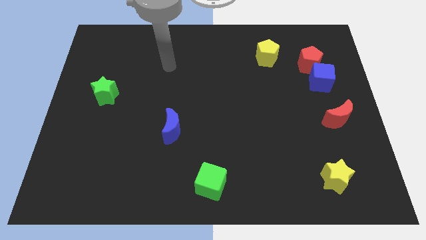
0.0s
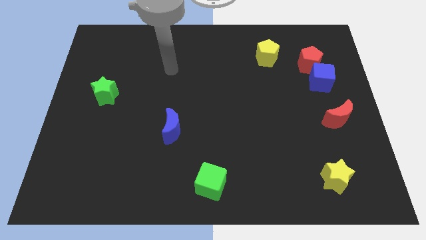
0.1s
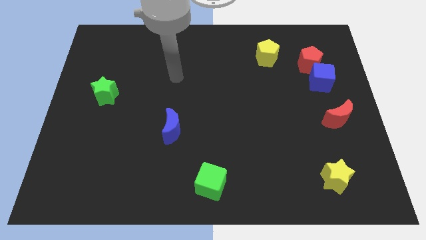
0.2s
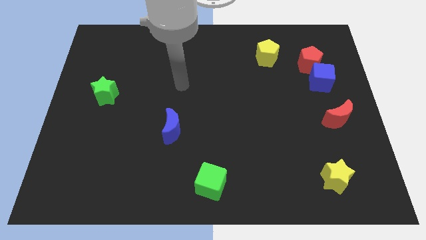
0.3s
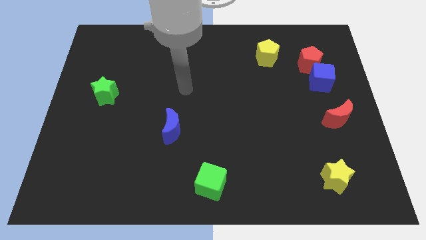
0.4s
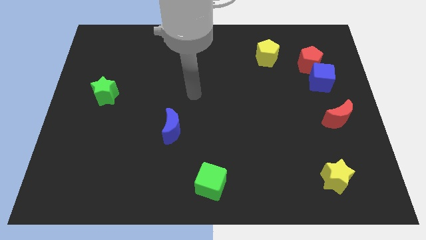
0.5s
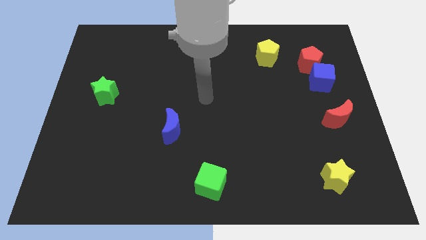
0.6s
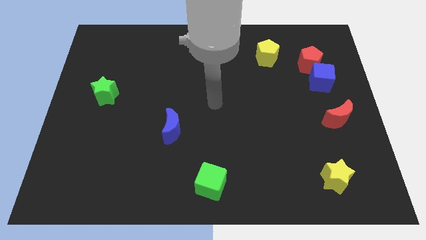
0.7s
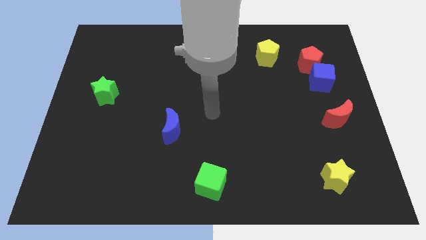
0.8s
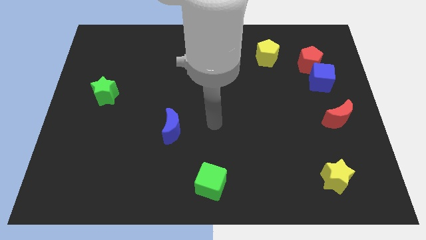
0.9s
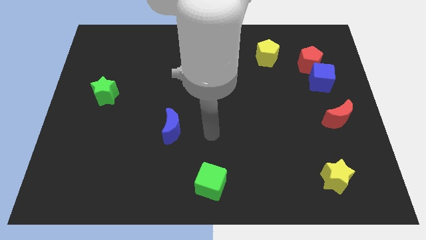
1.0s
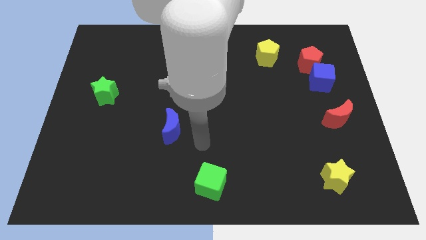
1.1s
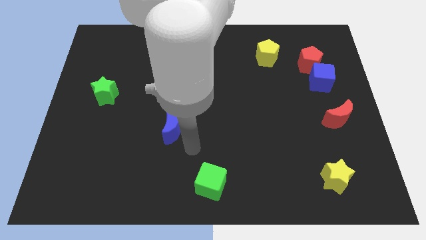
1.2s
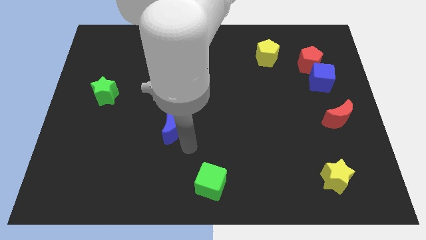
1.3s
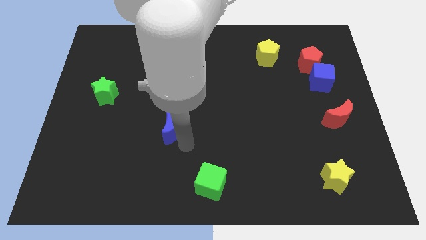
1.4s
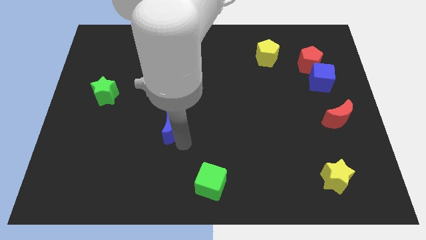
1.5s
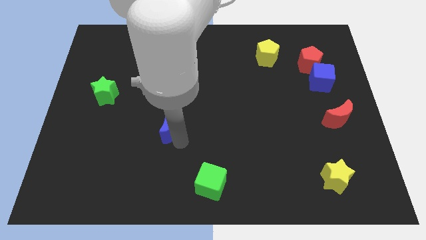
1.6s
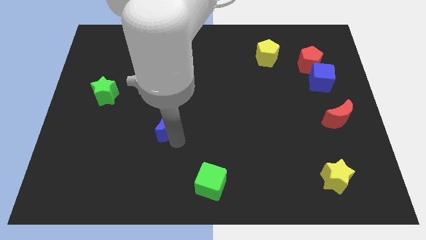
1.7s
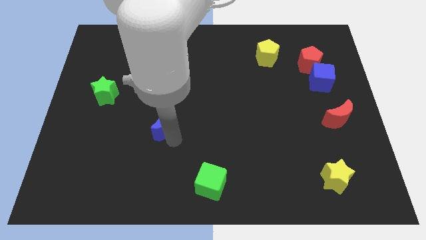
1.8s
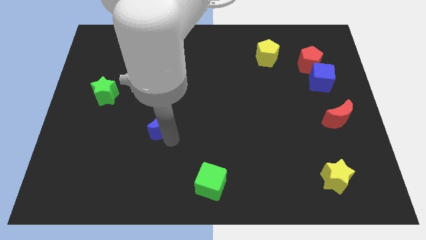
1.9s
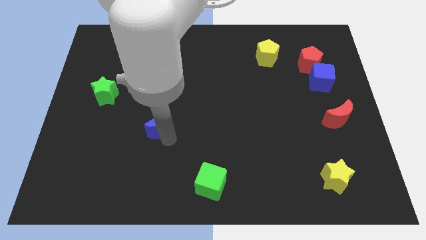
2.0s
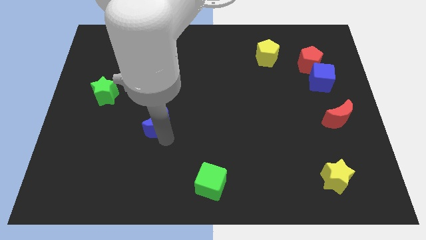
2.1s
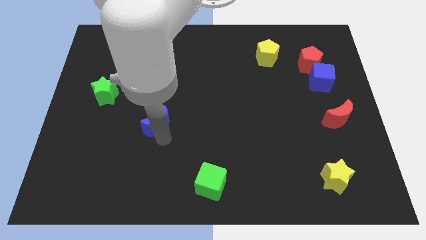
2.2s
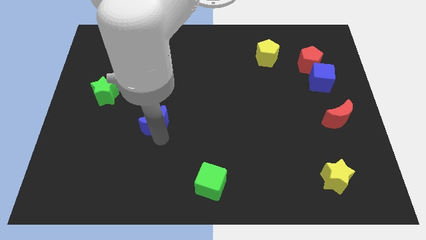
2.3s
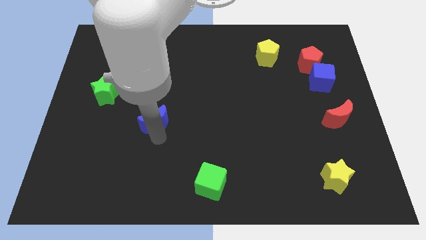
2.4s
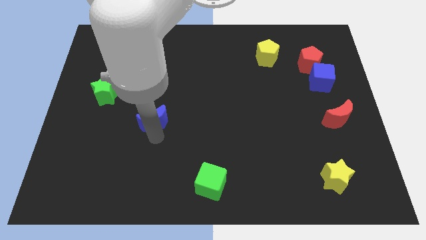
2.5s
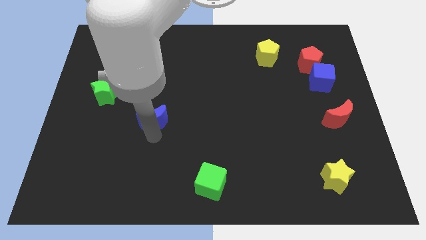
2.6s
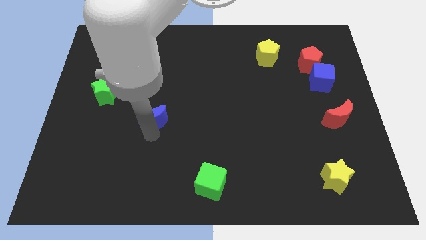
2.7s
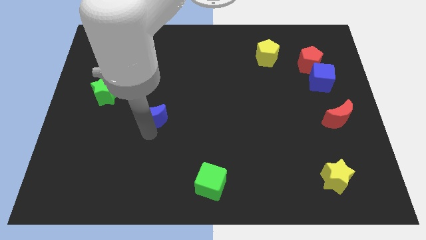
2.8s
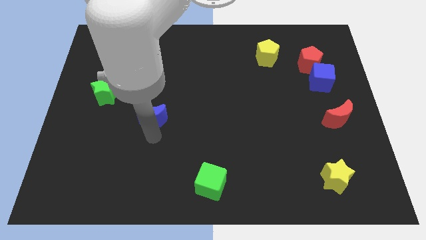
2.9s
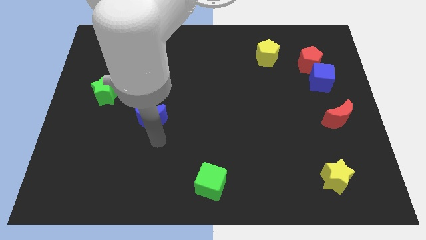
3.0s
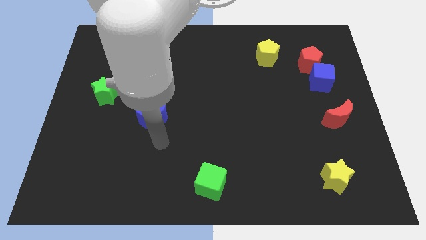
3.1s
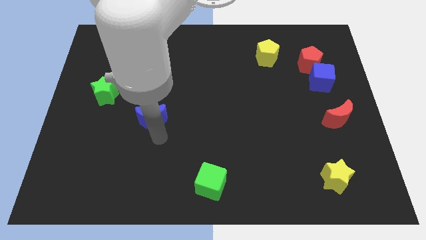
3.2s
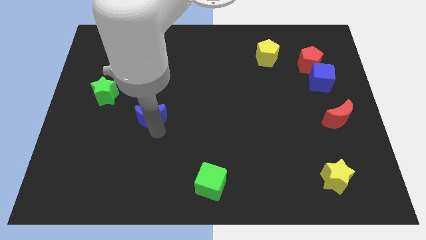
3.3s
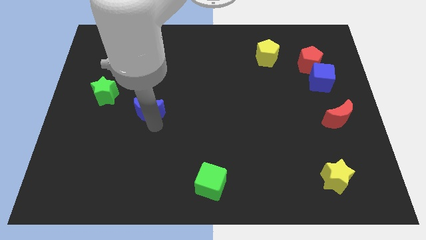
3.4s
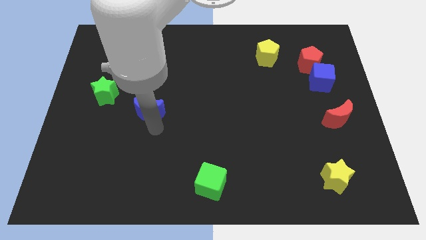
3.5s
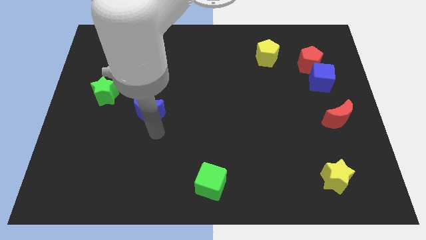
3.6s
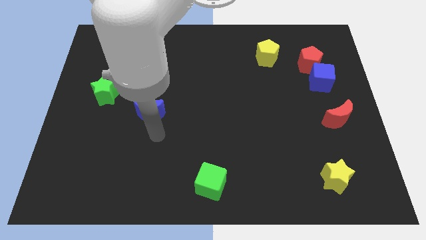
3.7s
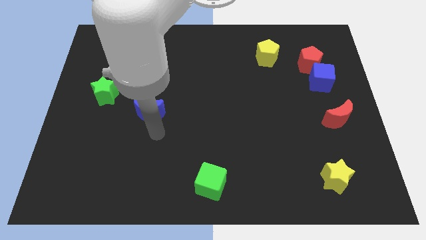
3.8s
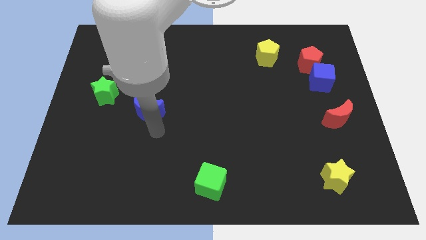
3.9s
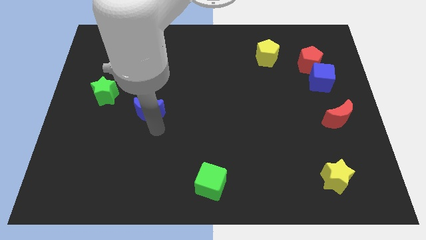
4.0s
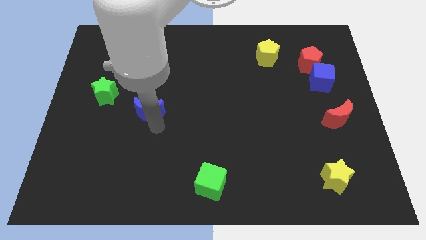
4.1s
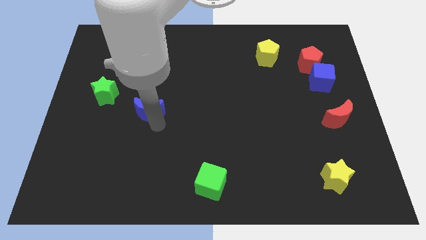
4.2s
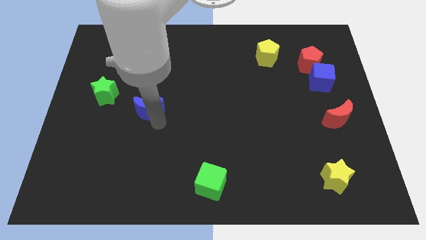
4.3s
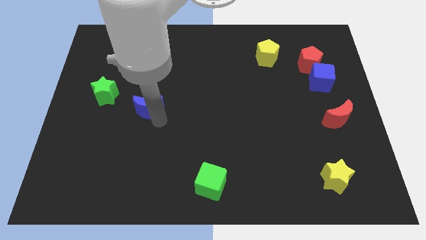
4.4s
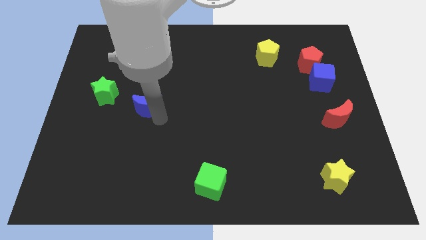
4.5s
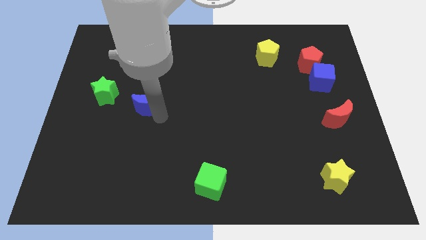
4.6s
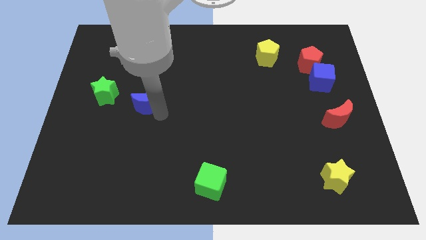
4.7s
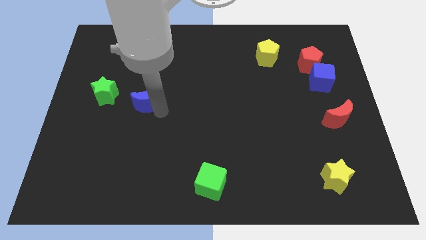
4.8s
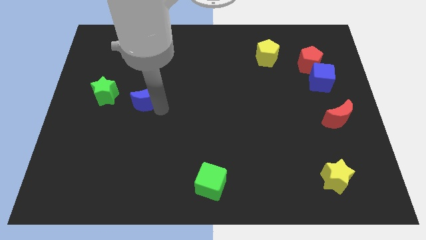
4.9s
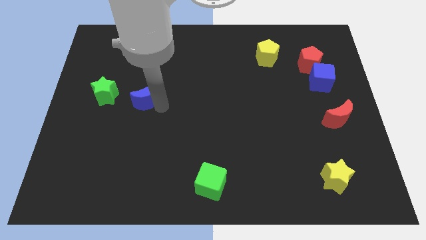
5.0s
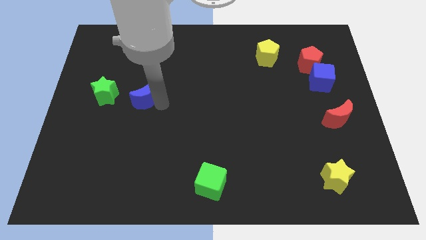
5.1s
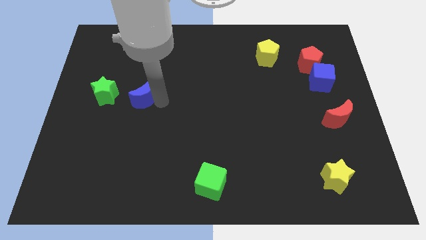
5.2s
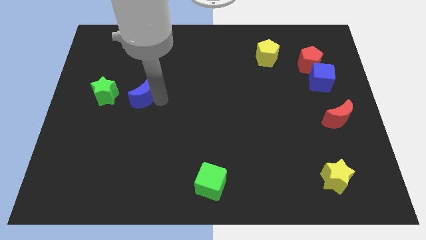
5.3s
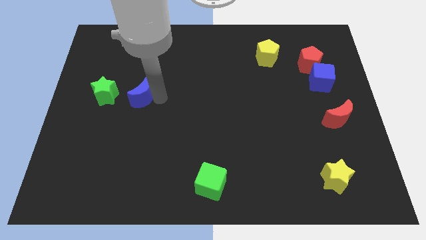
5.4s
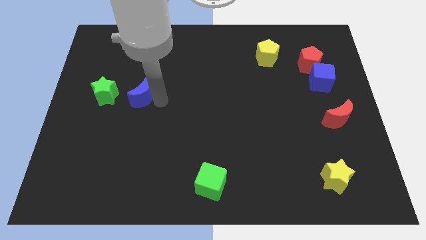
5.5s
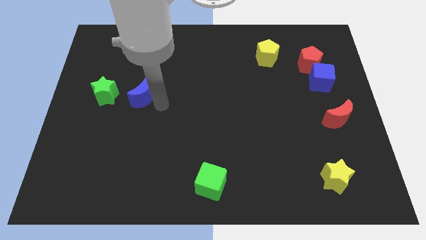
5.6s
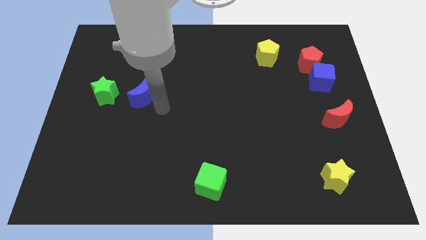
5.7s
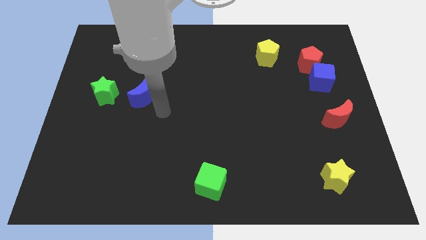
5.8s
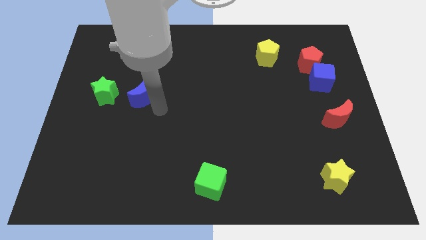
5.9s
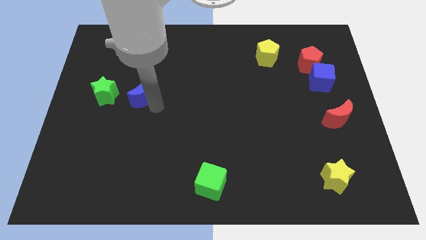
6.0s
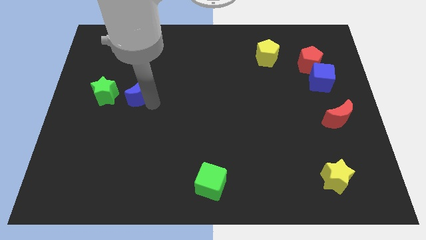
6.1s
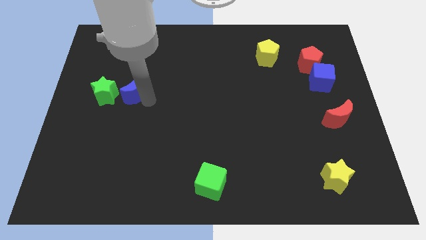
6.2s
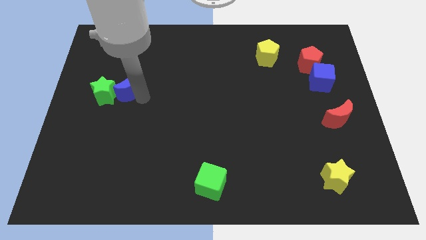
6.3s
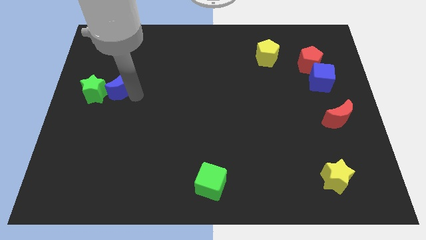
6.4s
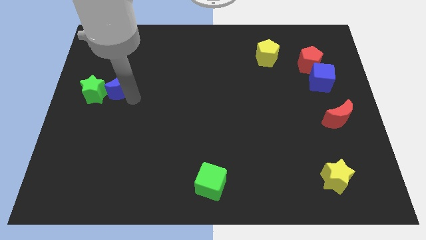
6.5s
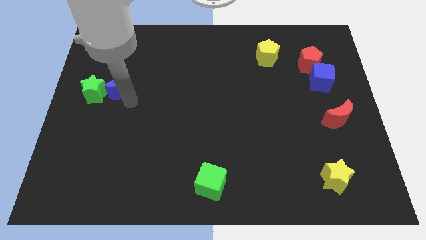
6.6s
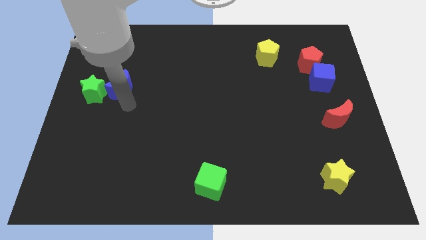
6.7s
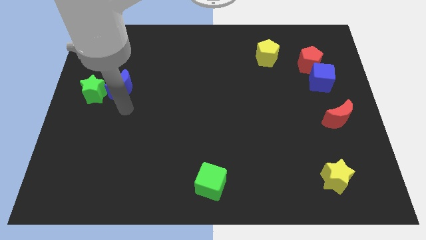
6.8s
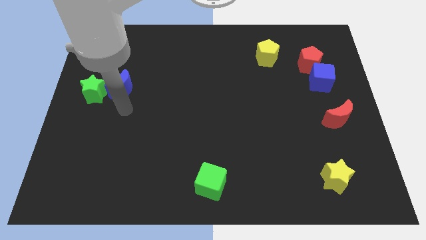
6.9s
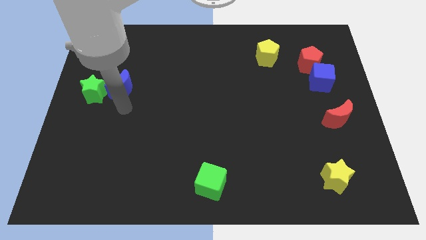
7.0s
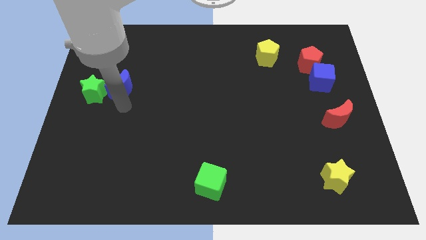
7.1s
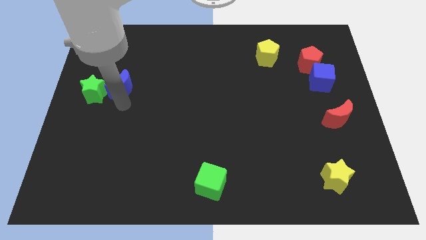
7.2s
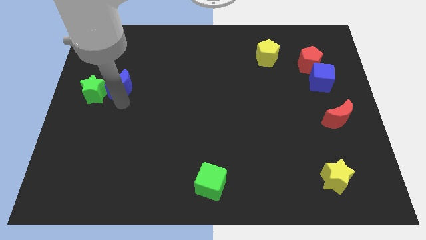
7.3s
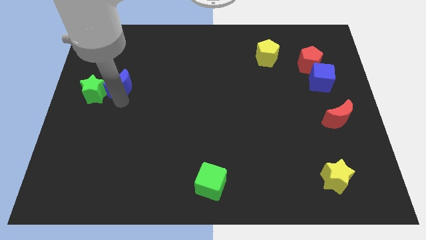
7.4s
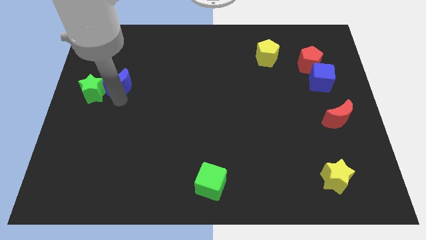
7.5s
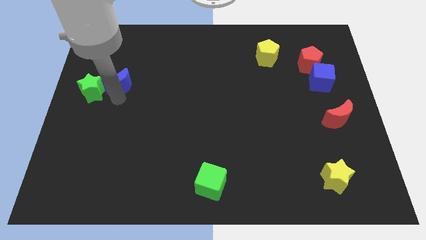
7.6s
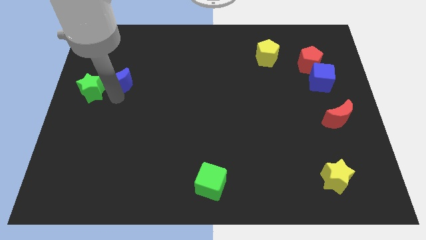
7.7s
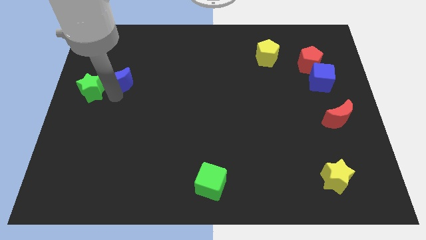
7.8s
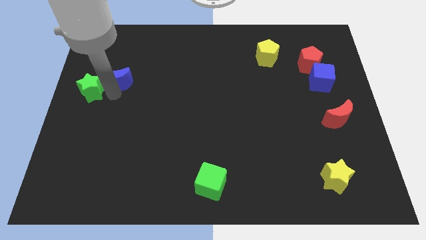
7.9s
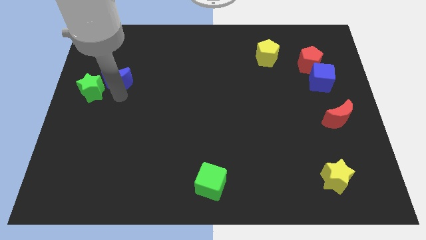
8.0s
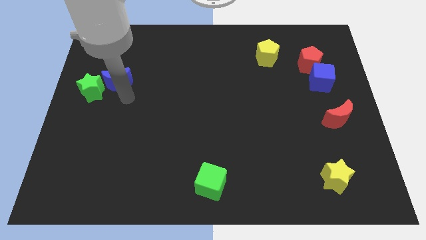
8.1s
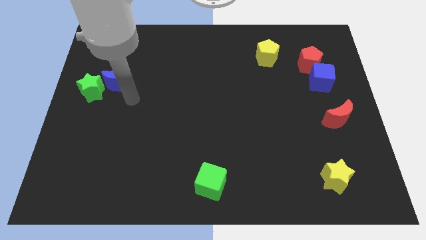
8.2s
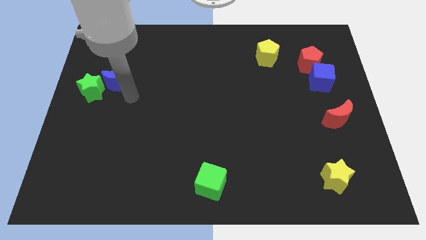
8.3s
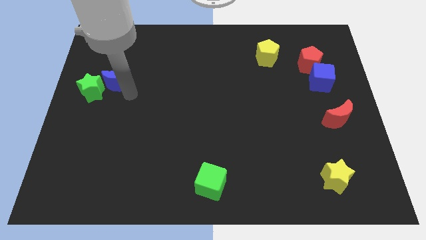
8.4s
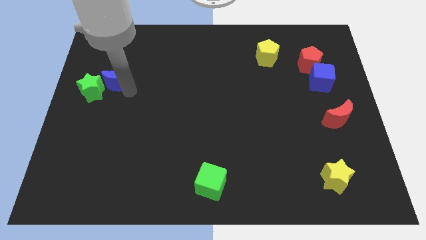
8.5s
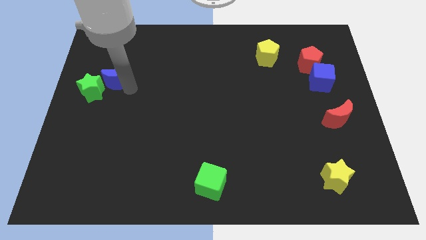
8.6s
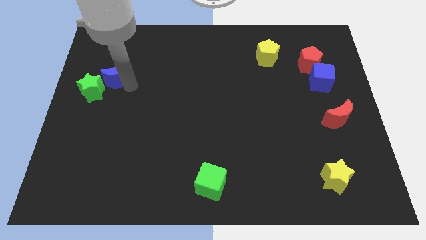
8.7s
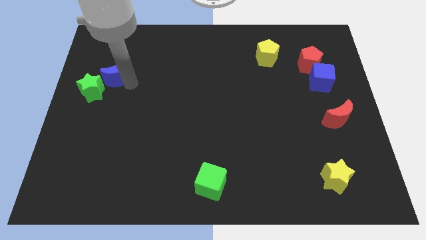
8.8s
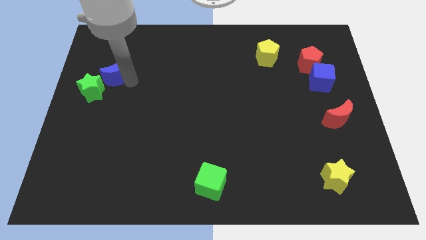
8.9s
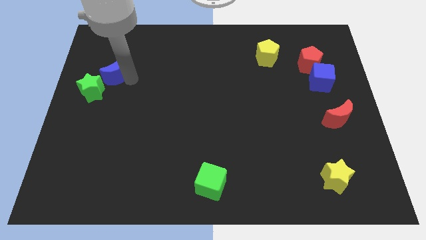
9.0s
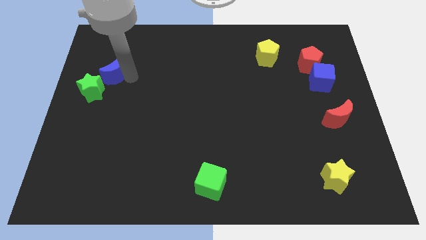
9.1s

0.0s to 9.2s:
move the blue moon above the green star
